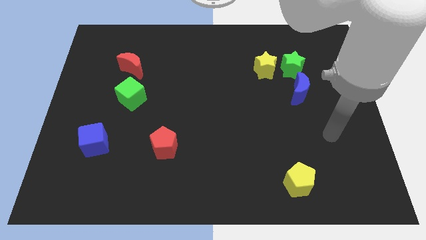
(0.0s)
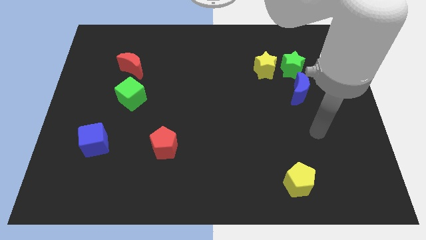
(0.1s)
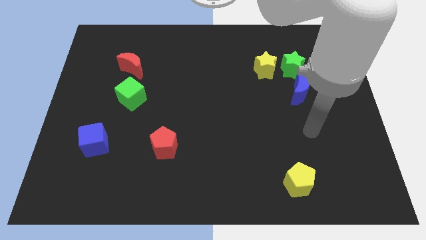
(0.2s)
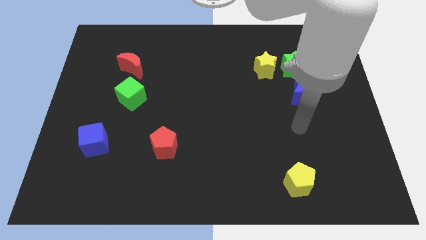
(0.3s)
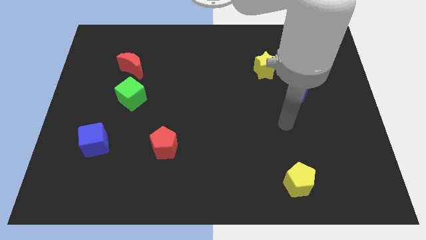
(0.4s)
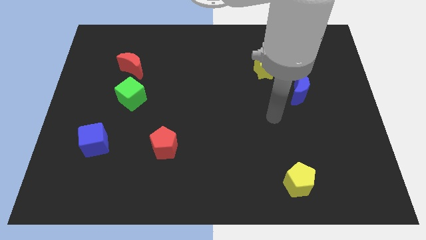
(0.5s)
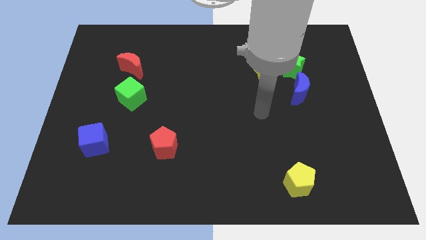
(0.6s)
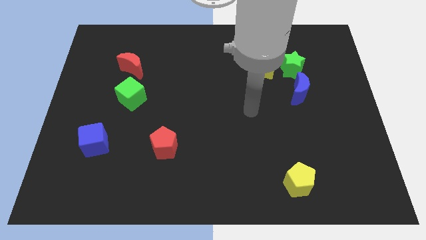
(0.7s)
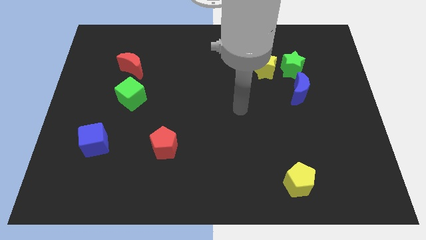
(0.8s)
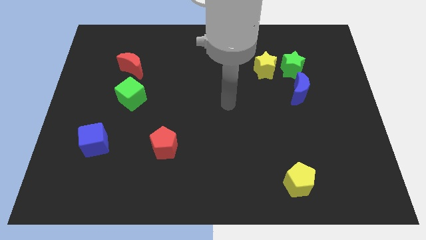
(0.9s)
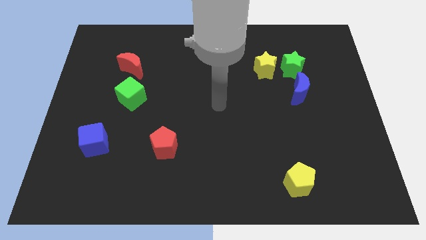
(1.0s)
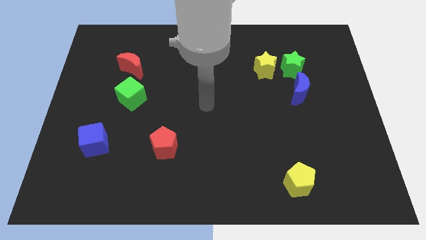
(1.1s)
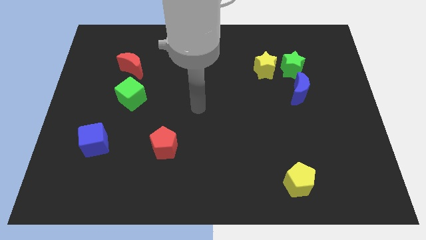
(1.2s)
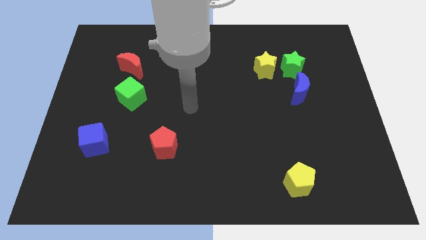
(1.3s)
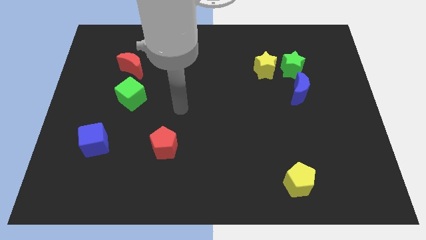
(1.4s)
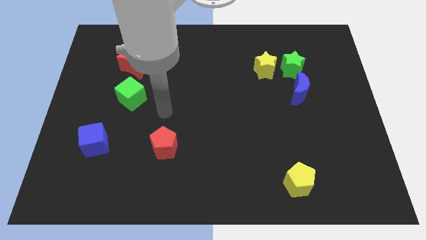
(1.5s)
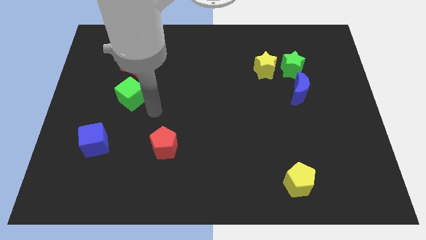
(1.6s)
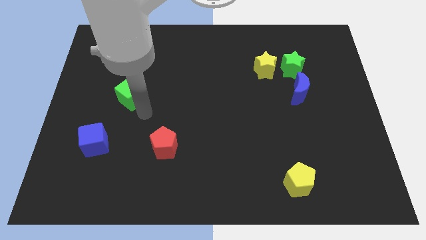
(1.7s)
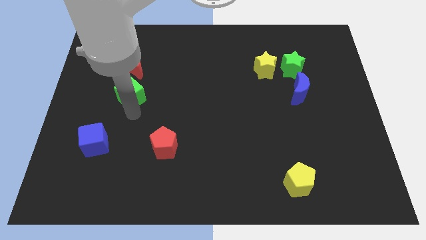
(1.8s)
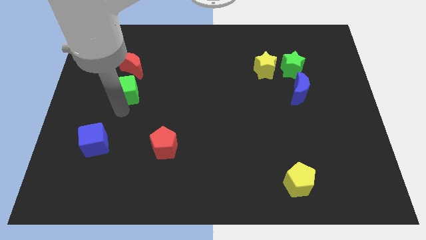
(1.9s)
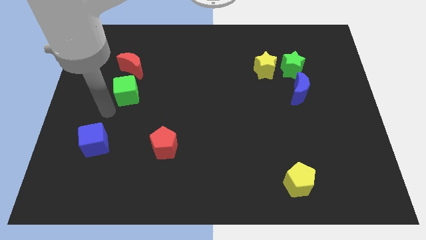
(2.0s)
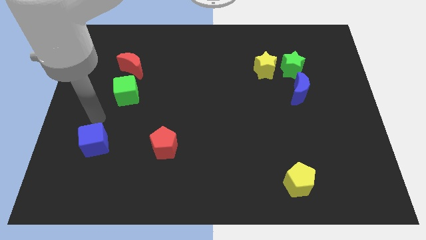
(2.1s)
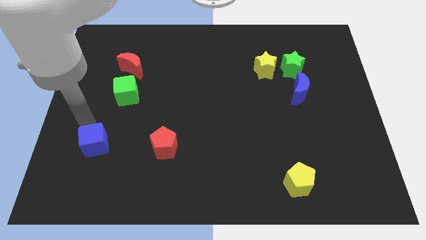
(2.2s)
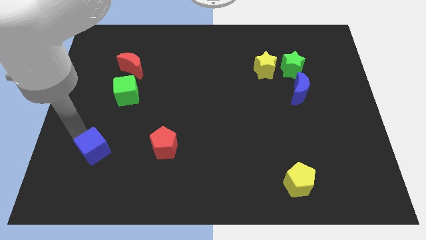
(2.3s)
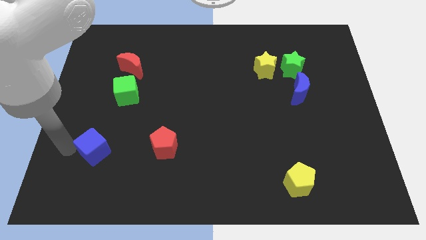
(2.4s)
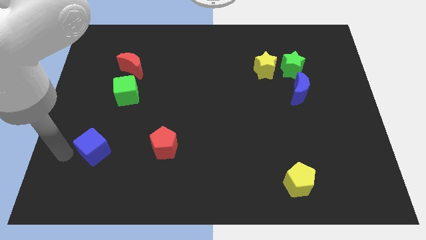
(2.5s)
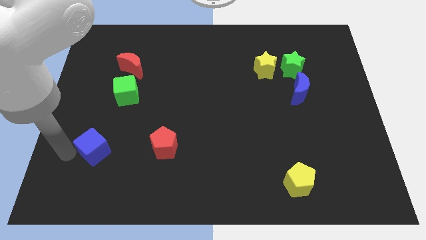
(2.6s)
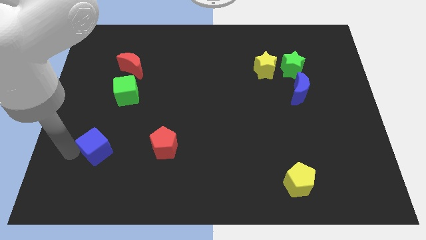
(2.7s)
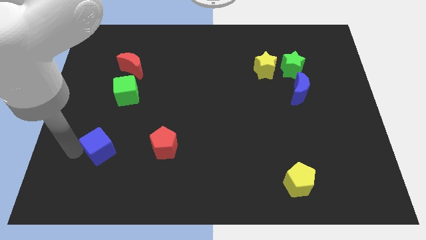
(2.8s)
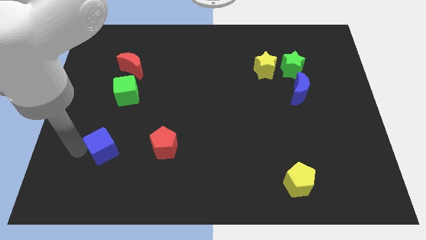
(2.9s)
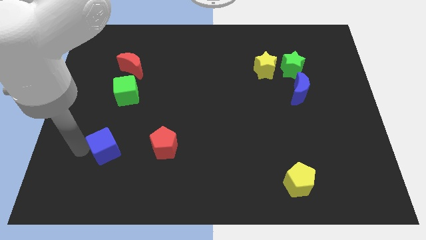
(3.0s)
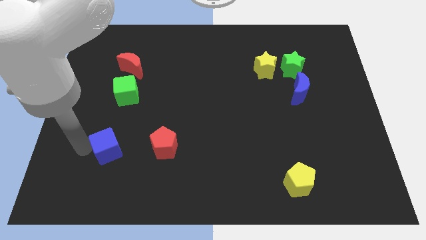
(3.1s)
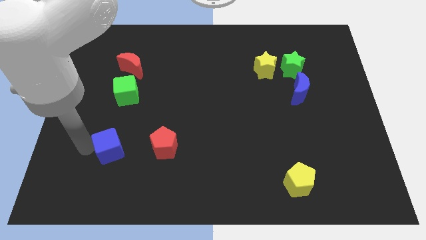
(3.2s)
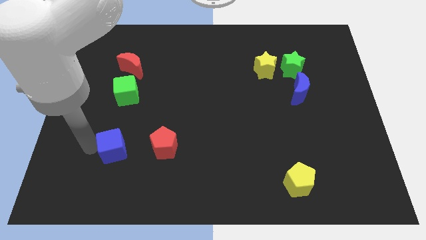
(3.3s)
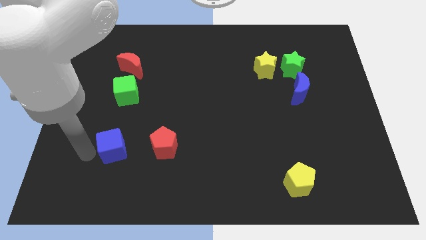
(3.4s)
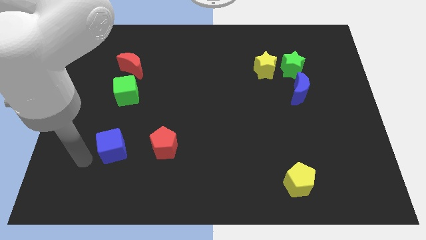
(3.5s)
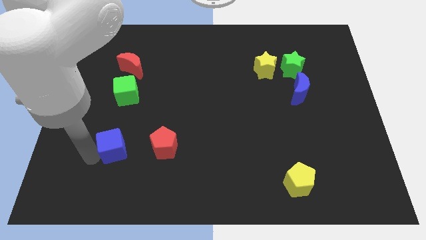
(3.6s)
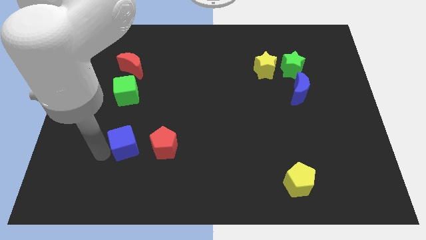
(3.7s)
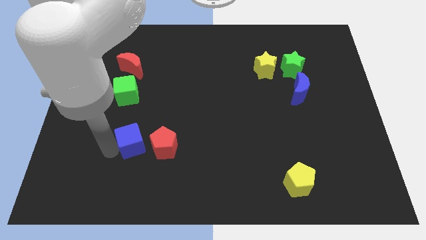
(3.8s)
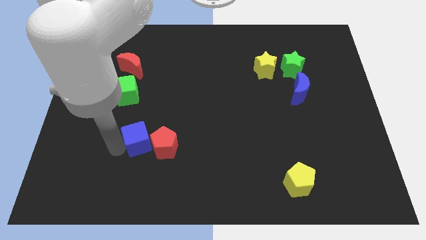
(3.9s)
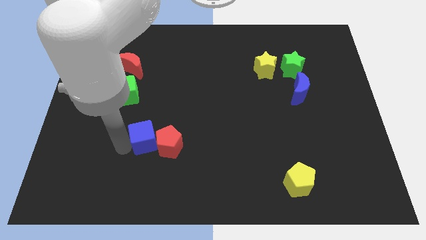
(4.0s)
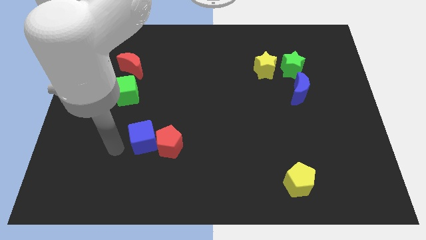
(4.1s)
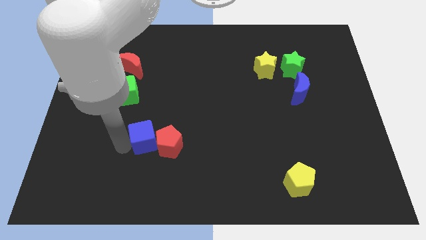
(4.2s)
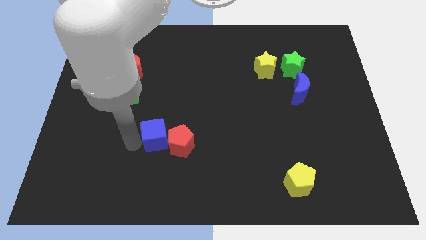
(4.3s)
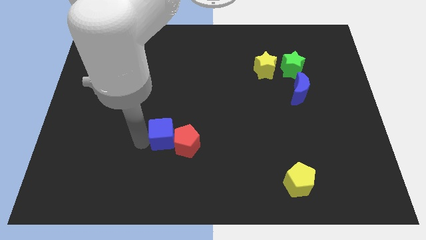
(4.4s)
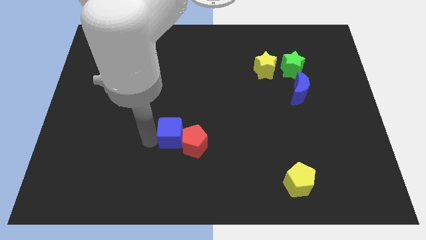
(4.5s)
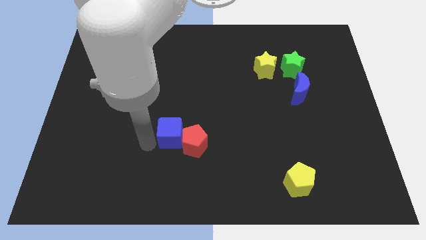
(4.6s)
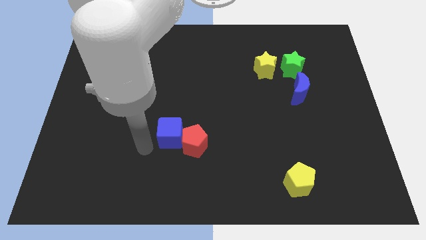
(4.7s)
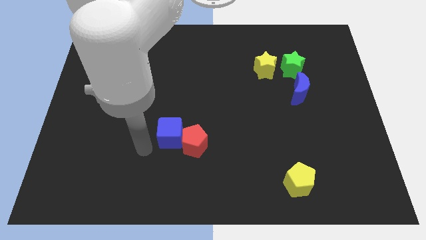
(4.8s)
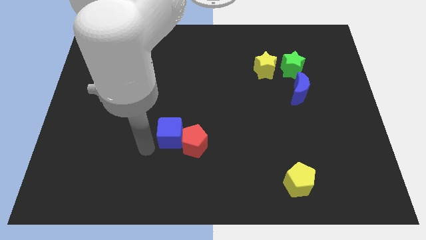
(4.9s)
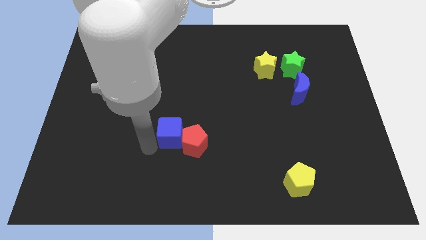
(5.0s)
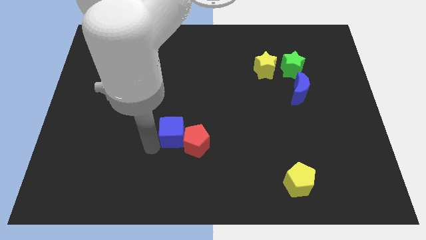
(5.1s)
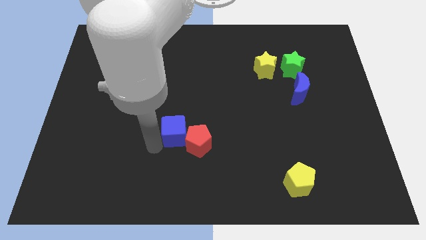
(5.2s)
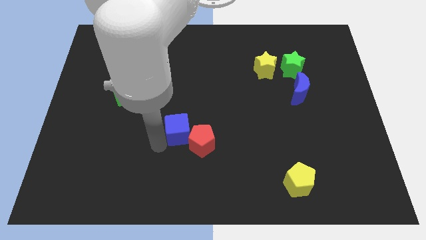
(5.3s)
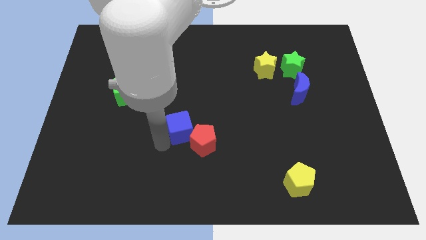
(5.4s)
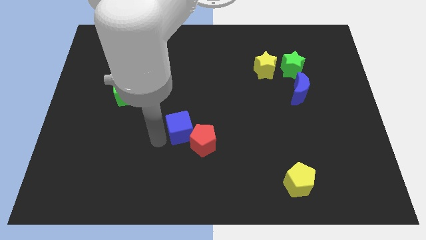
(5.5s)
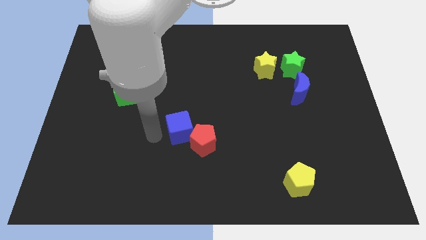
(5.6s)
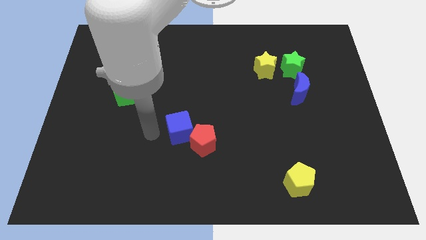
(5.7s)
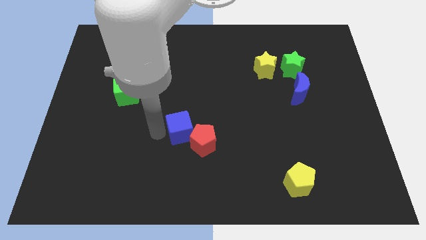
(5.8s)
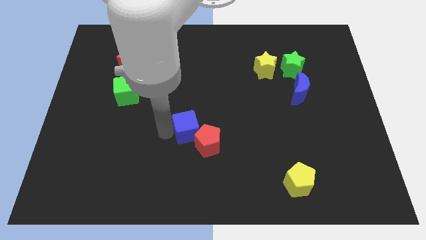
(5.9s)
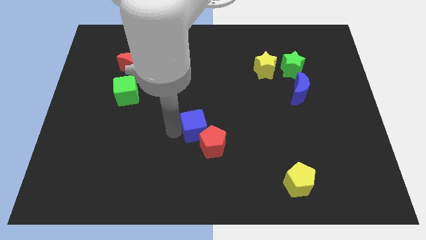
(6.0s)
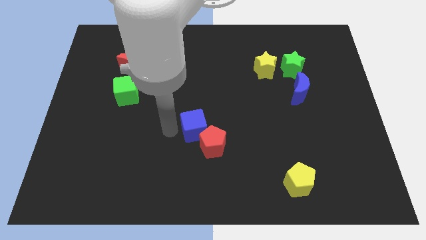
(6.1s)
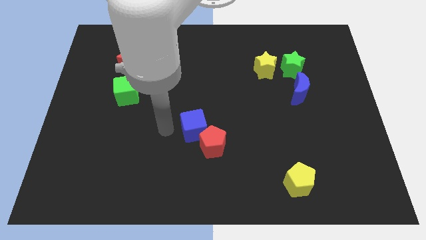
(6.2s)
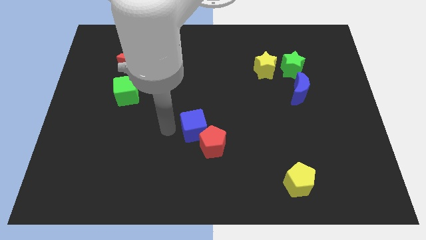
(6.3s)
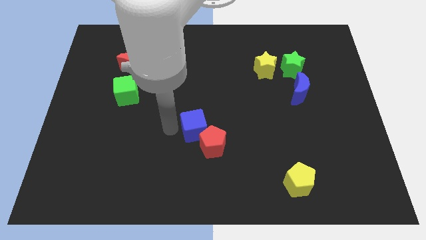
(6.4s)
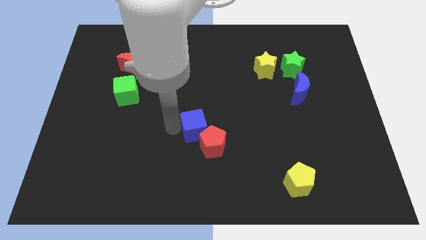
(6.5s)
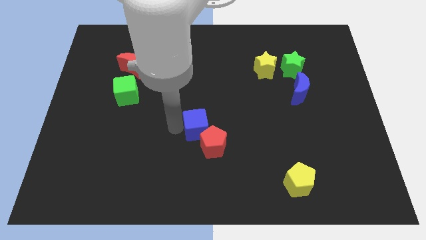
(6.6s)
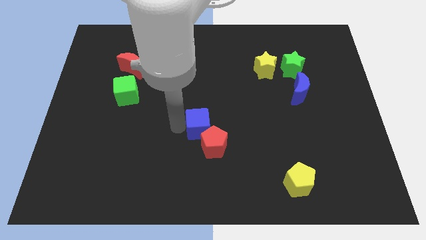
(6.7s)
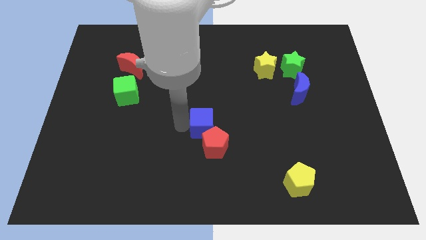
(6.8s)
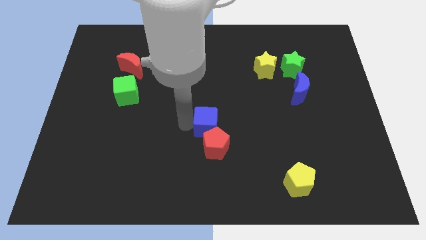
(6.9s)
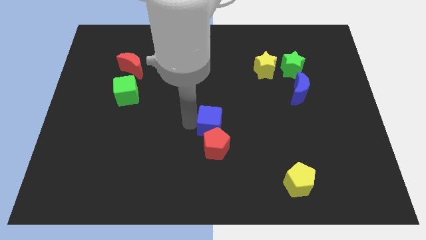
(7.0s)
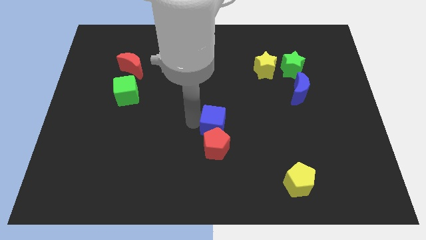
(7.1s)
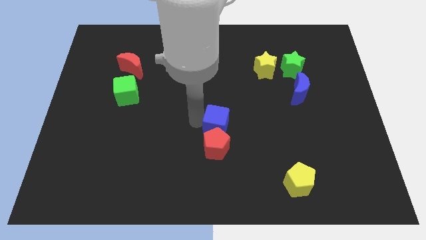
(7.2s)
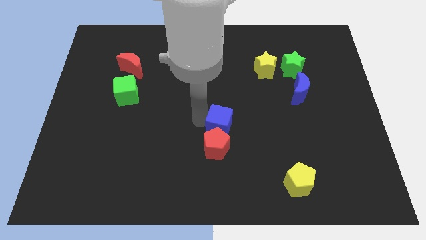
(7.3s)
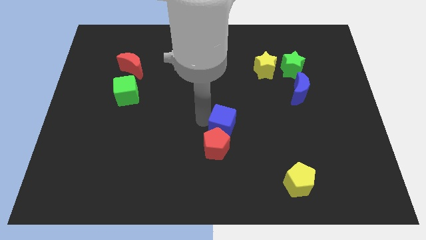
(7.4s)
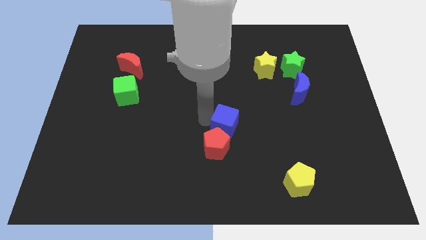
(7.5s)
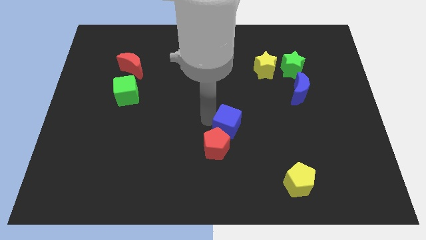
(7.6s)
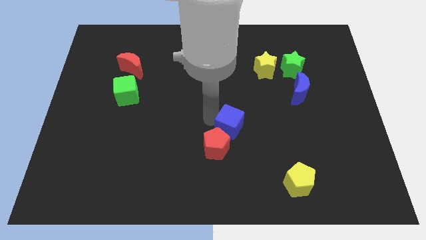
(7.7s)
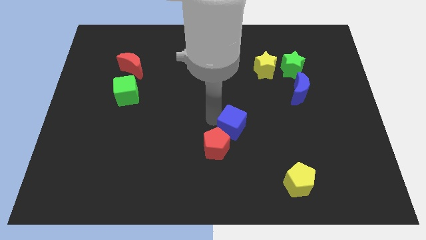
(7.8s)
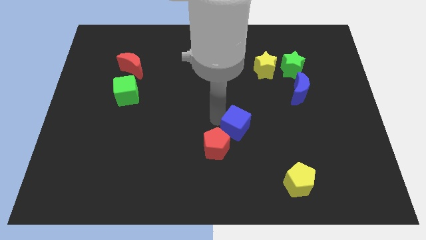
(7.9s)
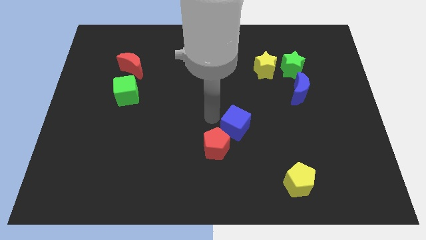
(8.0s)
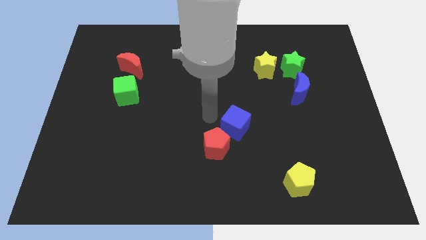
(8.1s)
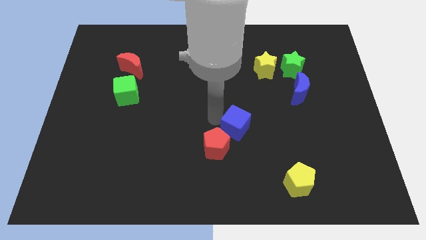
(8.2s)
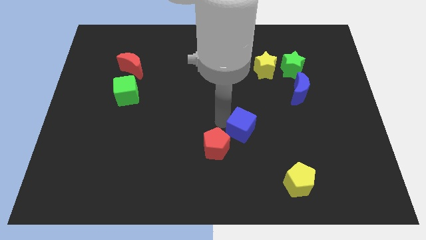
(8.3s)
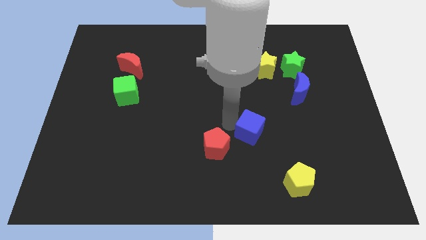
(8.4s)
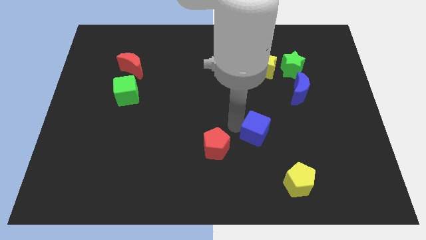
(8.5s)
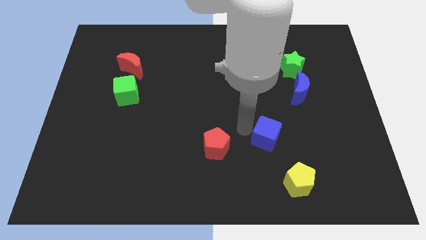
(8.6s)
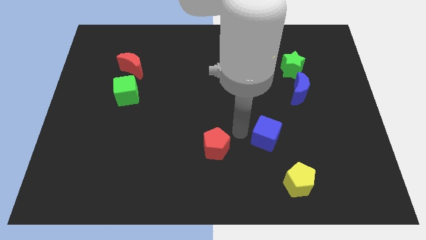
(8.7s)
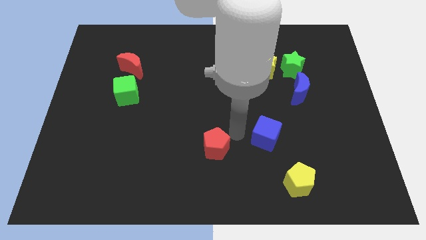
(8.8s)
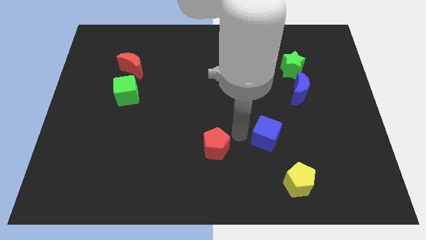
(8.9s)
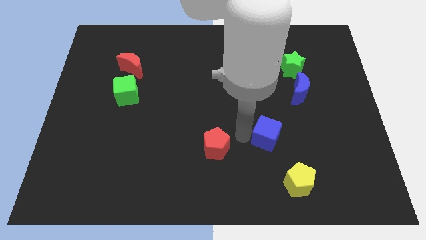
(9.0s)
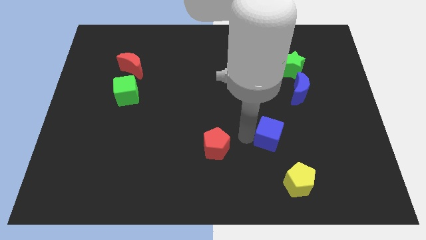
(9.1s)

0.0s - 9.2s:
put the blue cube to the top side of the yellow pentagon
